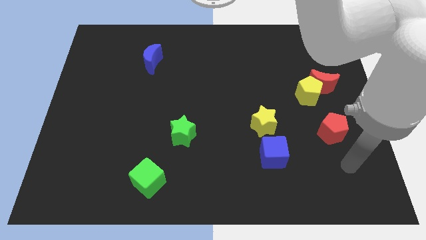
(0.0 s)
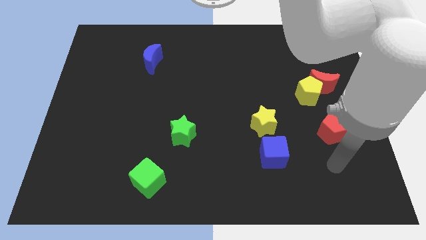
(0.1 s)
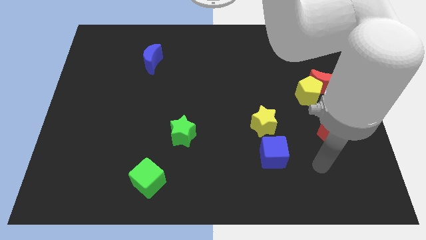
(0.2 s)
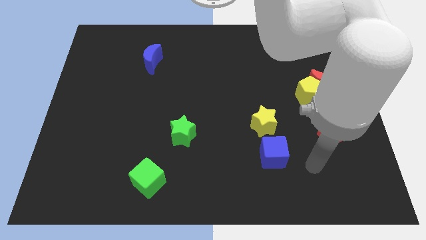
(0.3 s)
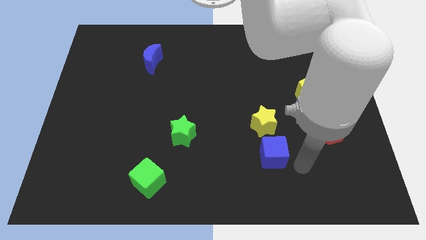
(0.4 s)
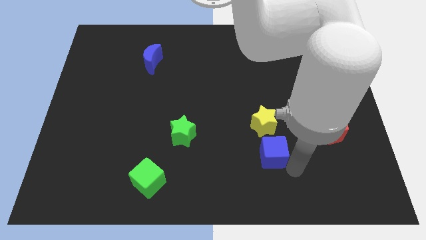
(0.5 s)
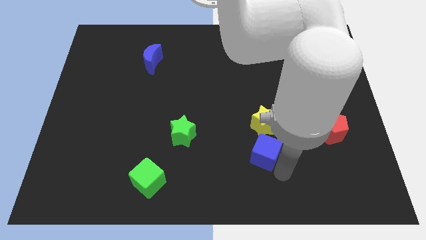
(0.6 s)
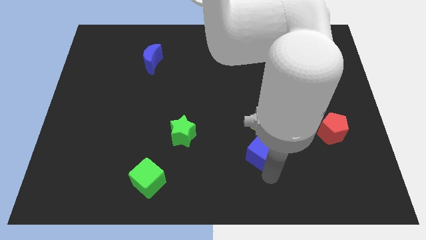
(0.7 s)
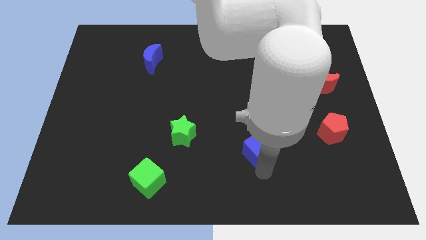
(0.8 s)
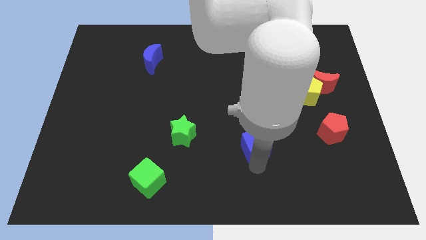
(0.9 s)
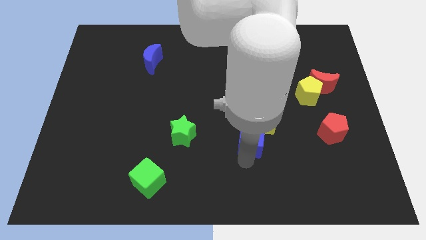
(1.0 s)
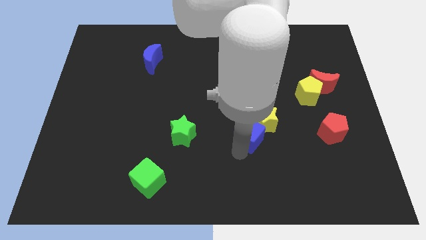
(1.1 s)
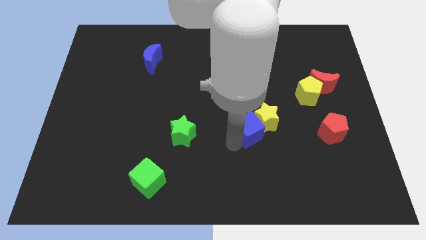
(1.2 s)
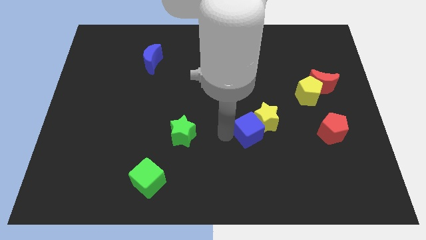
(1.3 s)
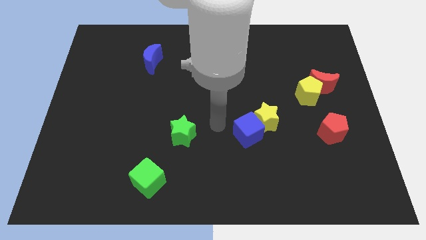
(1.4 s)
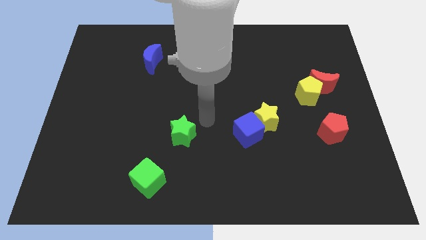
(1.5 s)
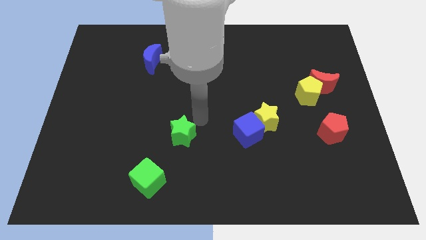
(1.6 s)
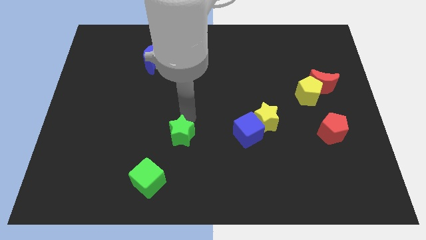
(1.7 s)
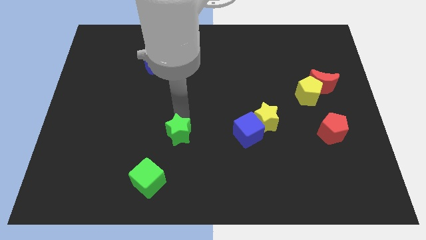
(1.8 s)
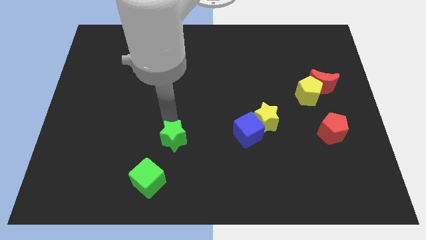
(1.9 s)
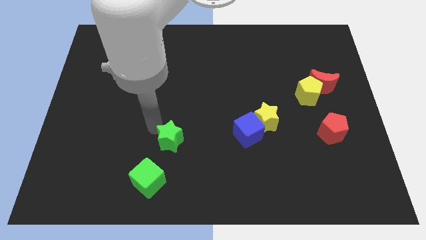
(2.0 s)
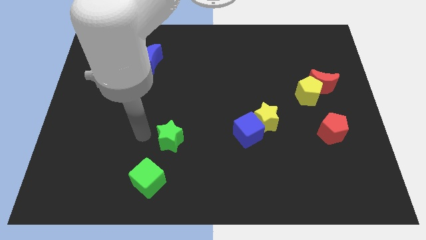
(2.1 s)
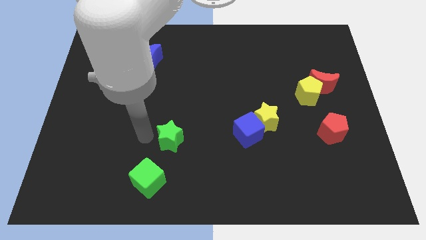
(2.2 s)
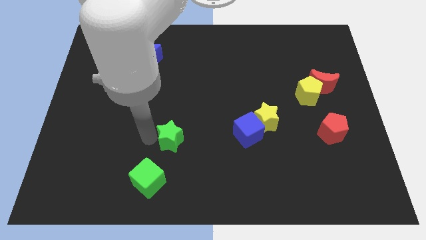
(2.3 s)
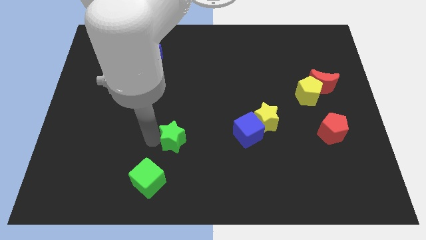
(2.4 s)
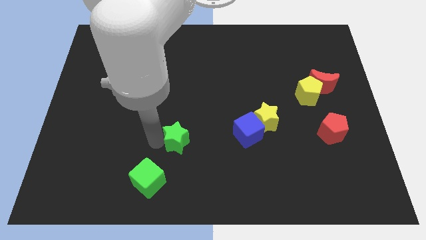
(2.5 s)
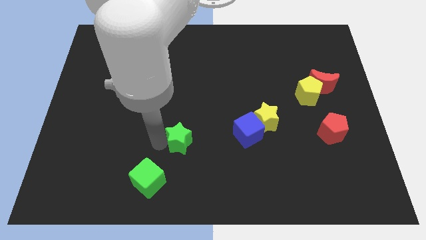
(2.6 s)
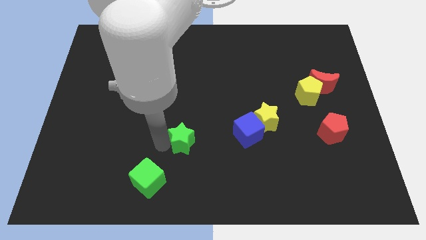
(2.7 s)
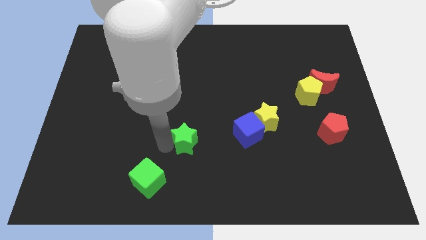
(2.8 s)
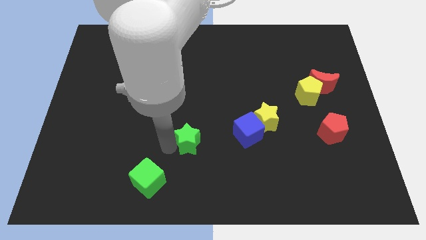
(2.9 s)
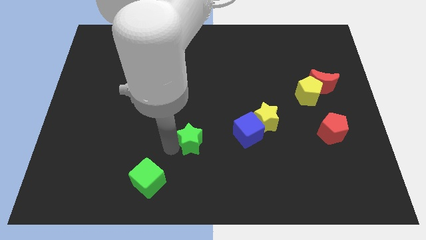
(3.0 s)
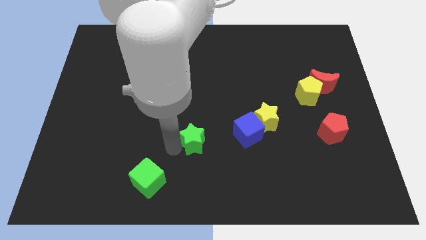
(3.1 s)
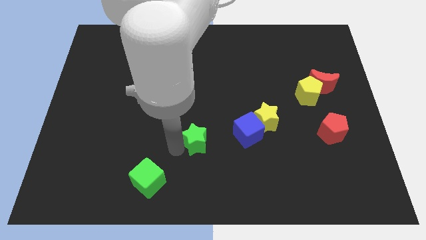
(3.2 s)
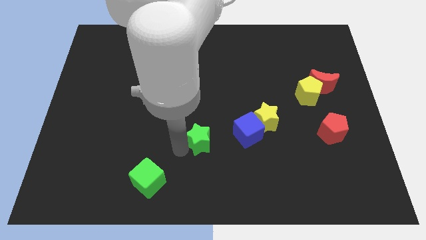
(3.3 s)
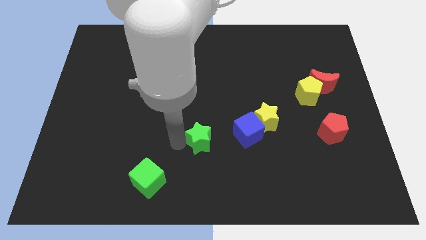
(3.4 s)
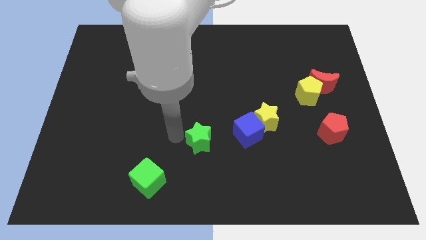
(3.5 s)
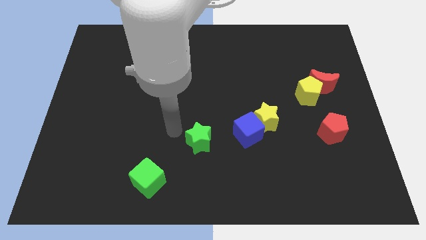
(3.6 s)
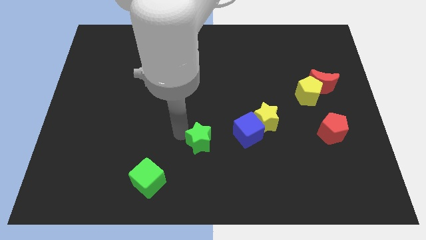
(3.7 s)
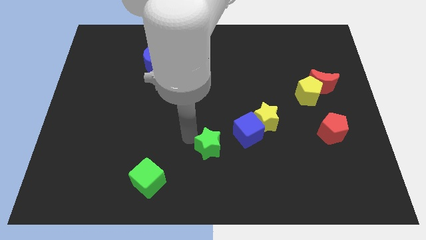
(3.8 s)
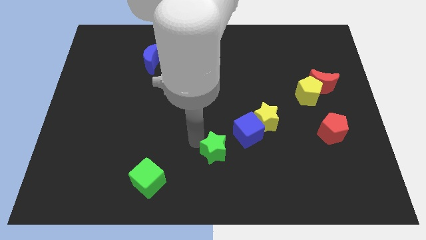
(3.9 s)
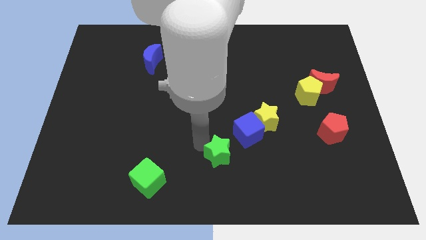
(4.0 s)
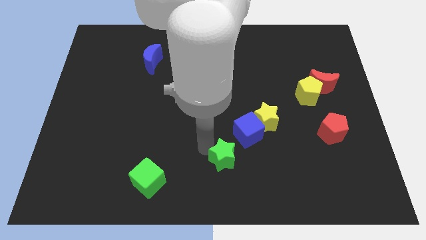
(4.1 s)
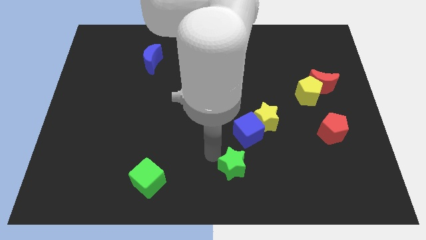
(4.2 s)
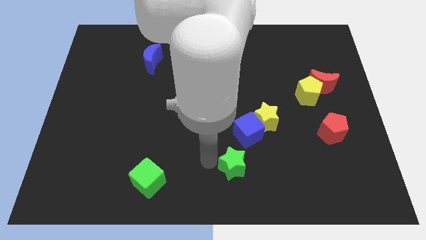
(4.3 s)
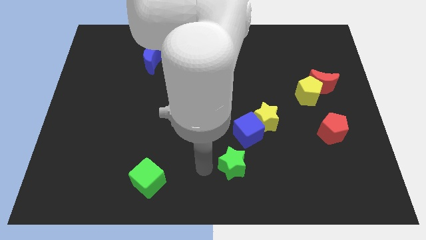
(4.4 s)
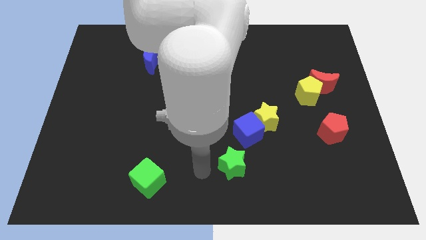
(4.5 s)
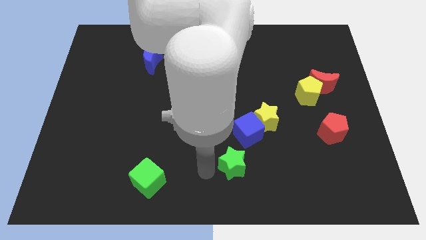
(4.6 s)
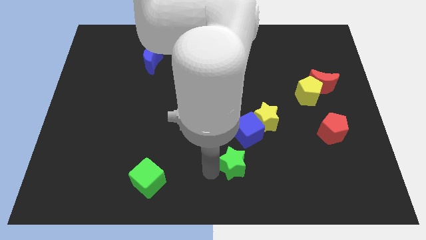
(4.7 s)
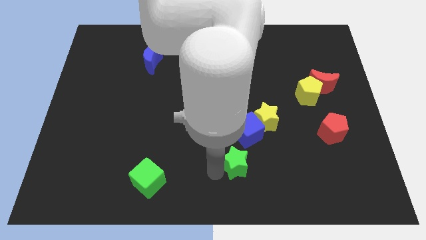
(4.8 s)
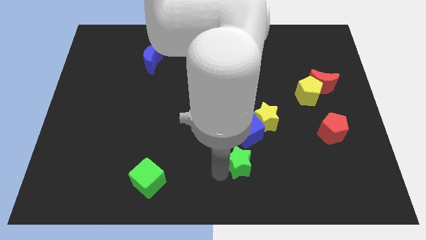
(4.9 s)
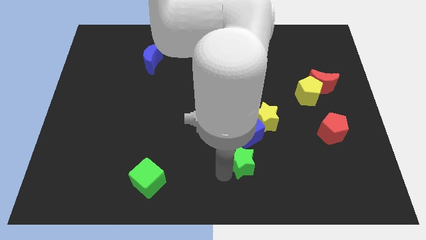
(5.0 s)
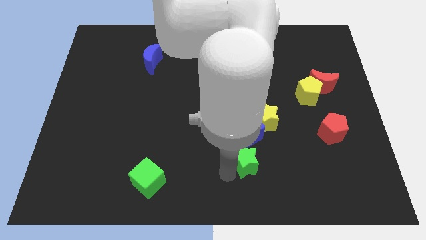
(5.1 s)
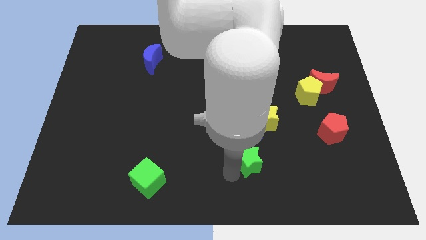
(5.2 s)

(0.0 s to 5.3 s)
move the green star below the yellow star

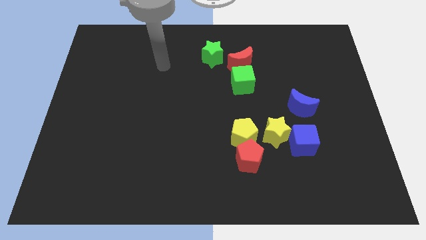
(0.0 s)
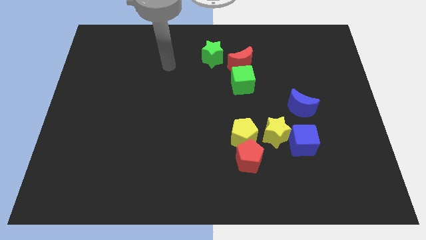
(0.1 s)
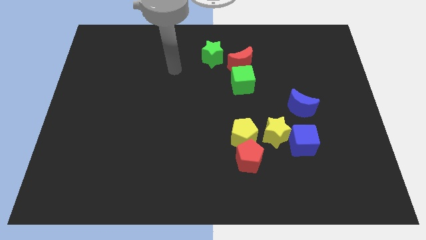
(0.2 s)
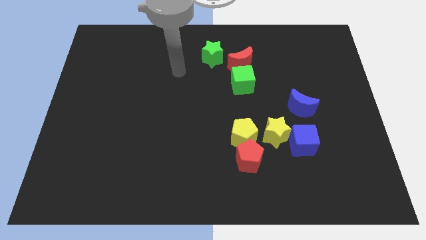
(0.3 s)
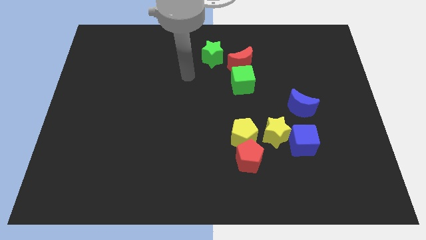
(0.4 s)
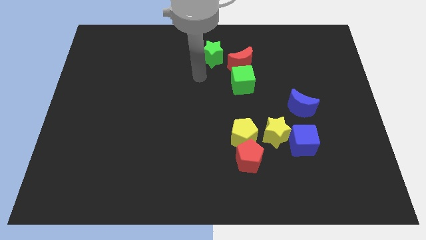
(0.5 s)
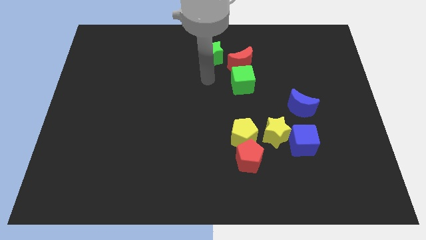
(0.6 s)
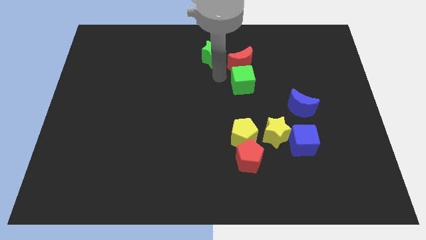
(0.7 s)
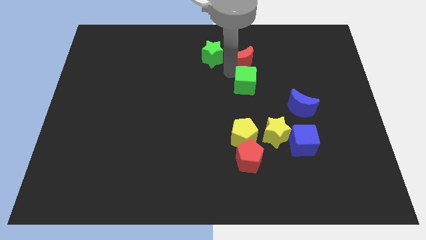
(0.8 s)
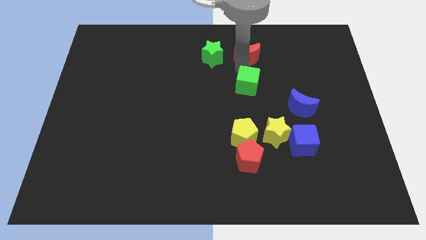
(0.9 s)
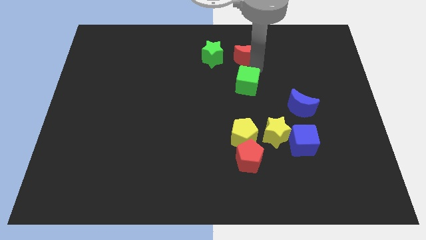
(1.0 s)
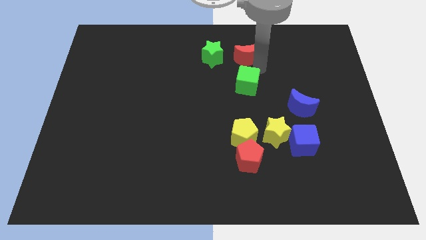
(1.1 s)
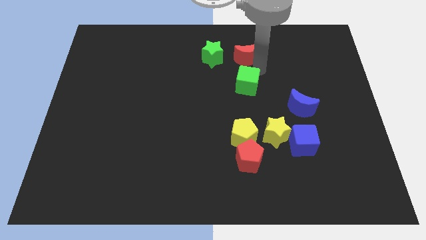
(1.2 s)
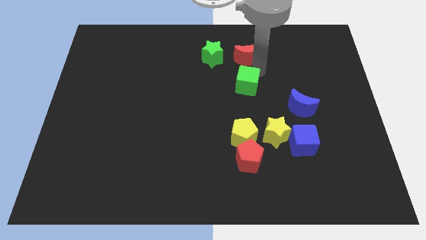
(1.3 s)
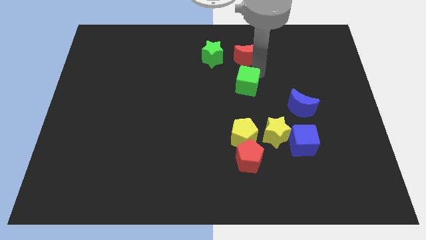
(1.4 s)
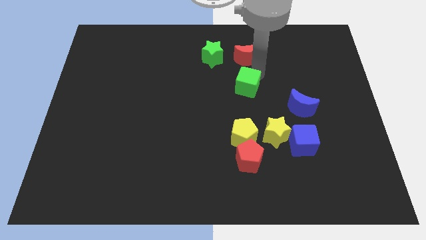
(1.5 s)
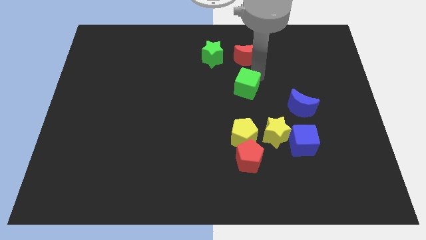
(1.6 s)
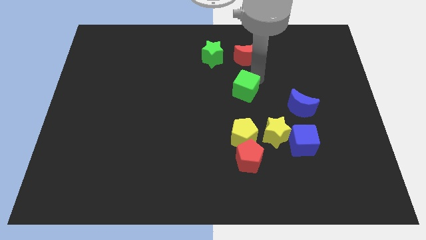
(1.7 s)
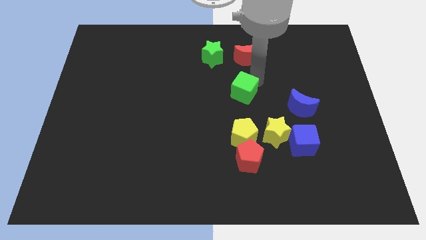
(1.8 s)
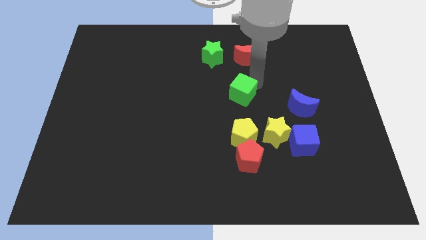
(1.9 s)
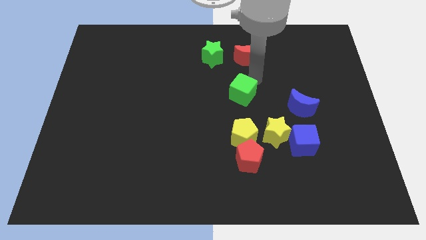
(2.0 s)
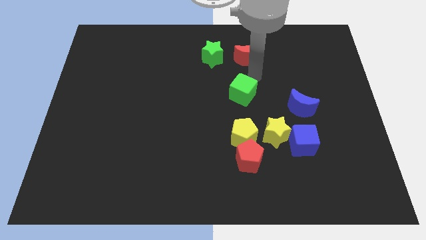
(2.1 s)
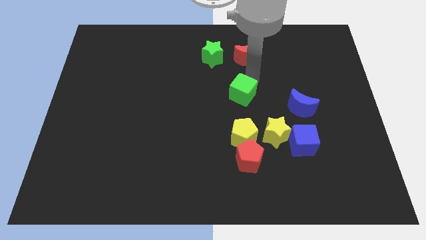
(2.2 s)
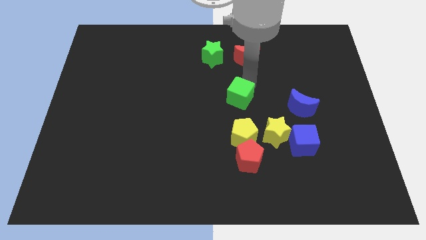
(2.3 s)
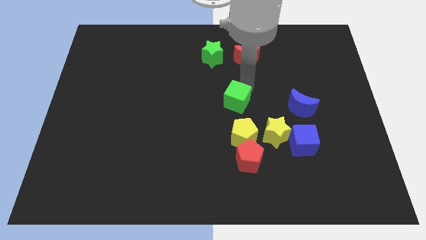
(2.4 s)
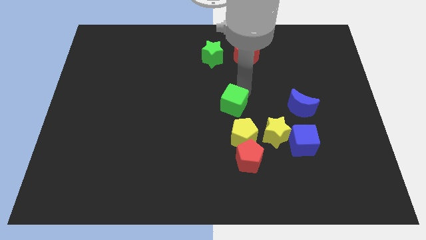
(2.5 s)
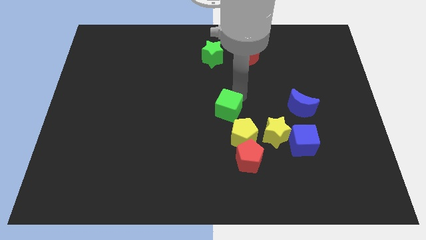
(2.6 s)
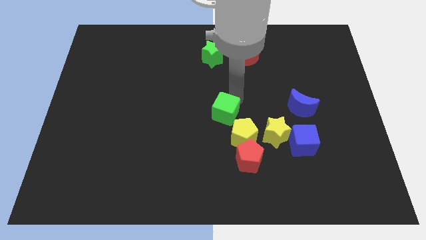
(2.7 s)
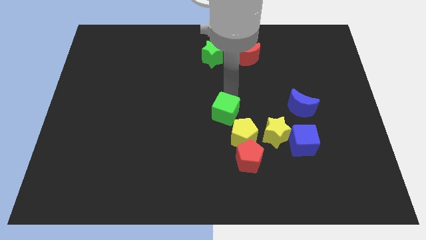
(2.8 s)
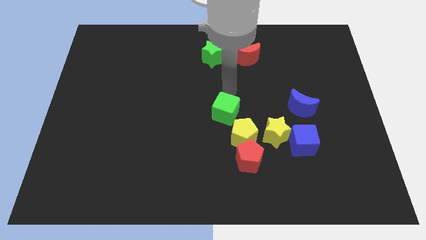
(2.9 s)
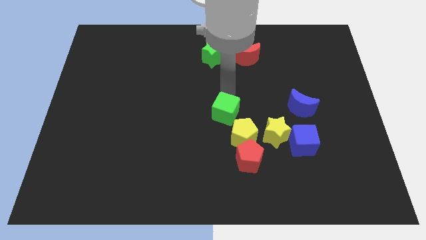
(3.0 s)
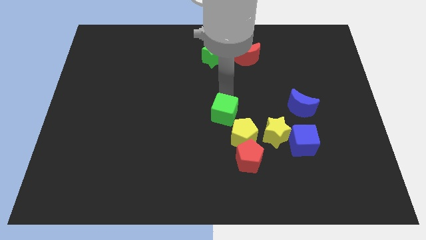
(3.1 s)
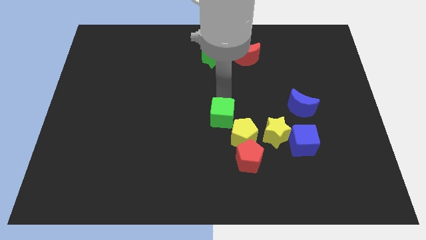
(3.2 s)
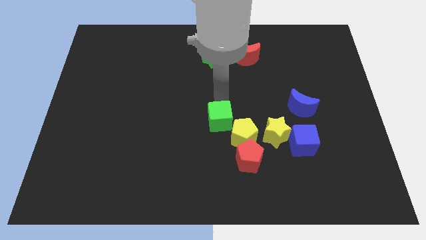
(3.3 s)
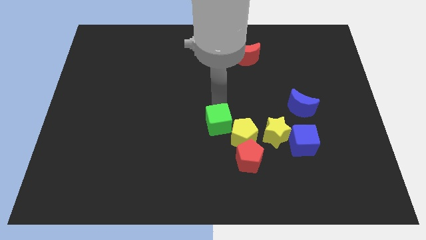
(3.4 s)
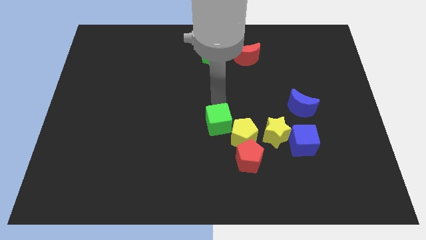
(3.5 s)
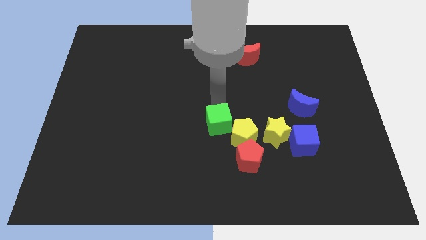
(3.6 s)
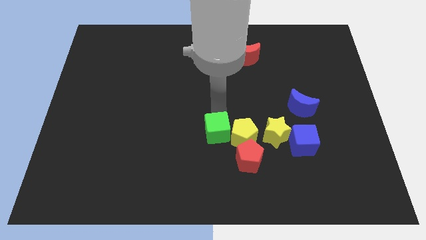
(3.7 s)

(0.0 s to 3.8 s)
put the green cube to the bottom left side of the yellow pentagon
